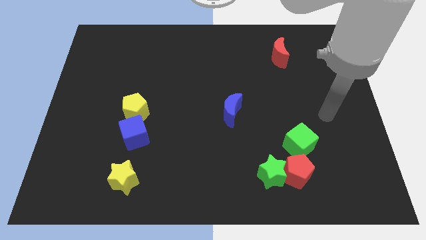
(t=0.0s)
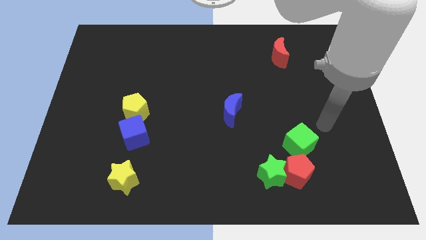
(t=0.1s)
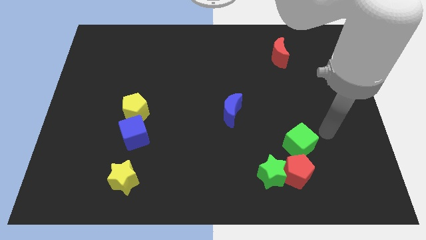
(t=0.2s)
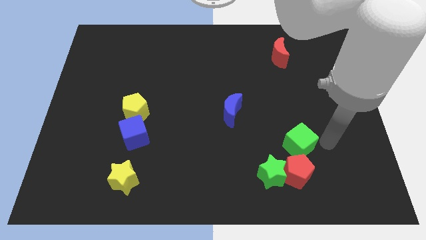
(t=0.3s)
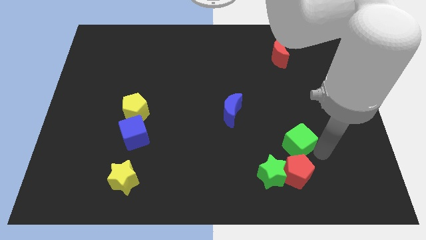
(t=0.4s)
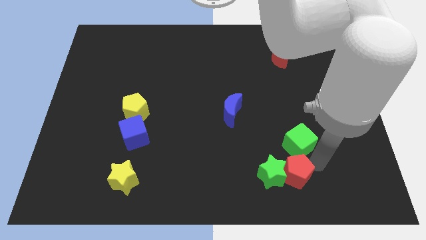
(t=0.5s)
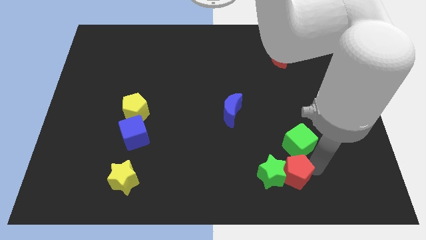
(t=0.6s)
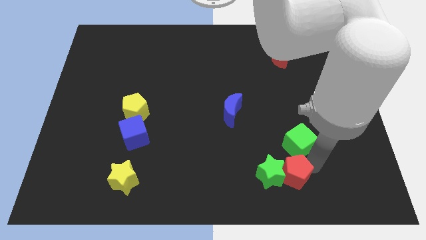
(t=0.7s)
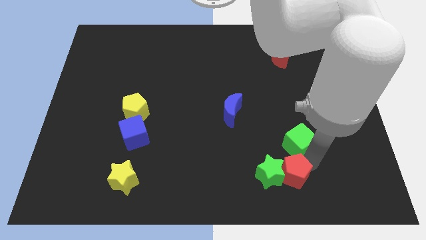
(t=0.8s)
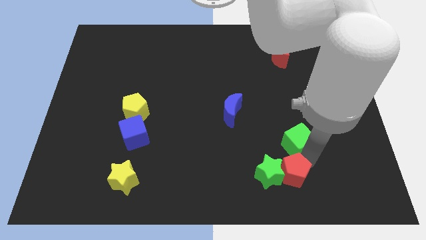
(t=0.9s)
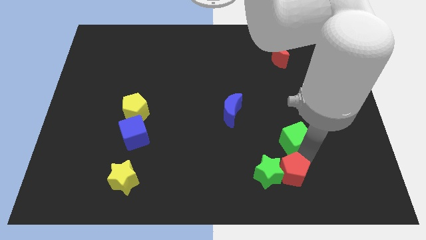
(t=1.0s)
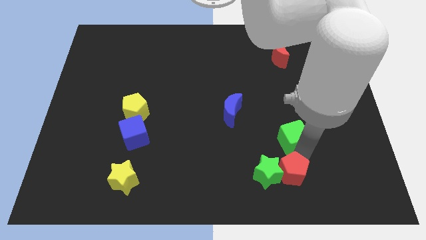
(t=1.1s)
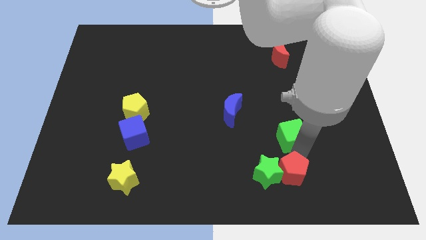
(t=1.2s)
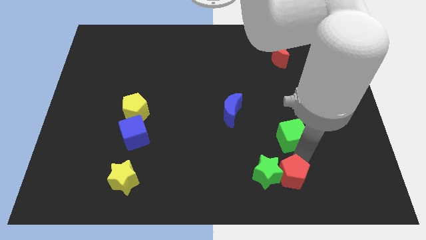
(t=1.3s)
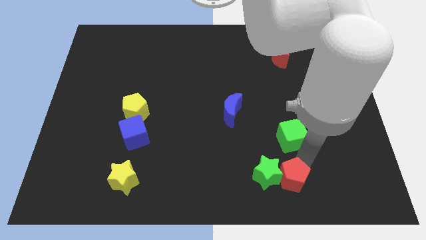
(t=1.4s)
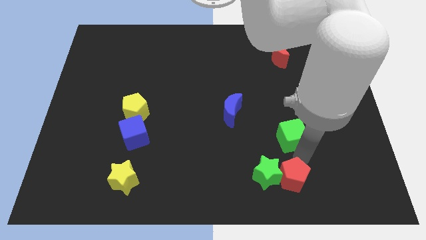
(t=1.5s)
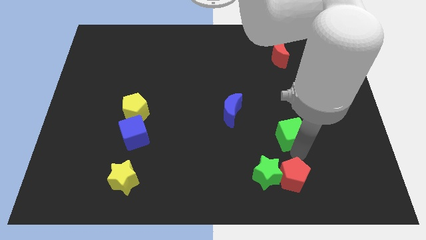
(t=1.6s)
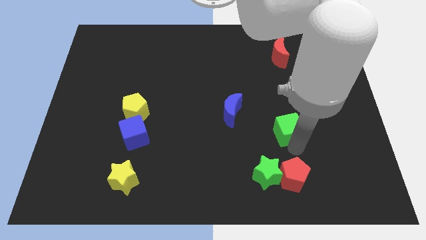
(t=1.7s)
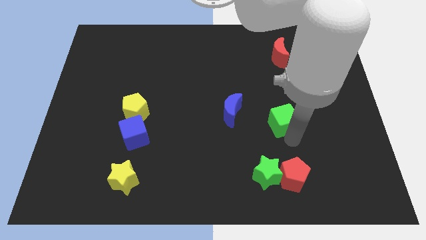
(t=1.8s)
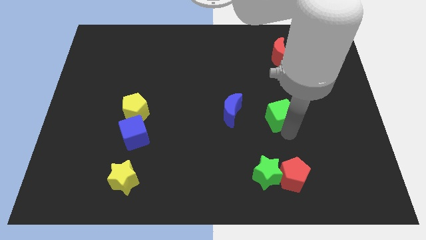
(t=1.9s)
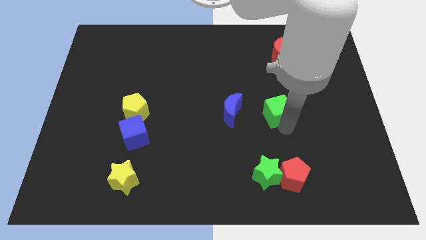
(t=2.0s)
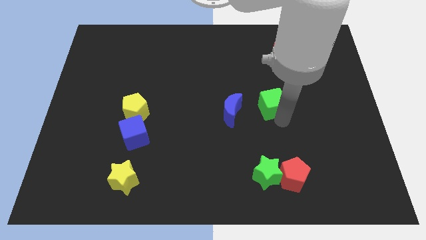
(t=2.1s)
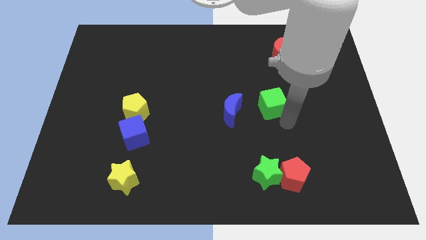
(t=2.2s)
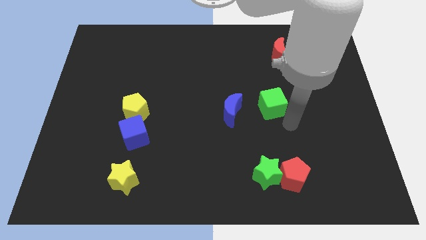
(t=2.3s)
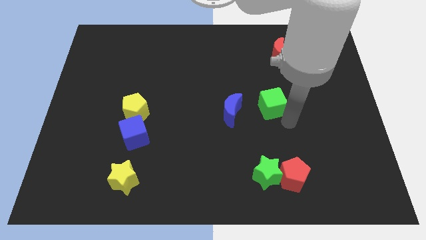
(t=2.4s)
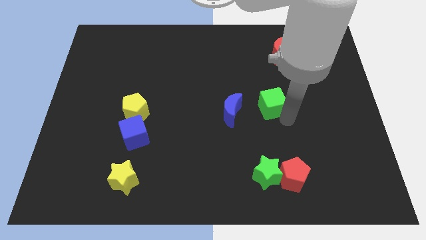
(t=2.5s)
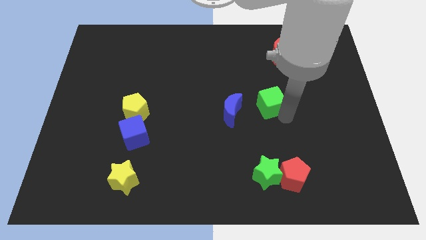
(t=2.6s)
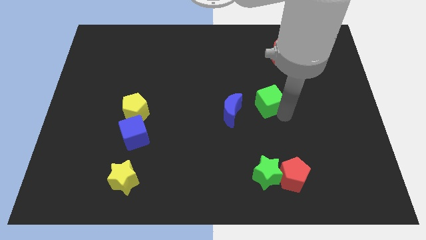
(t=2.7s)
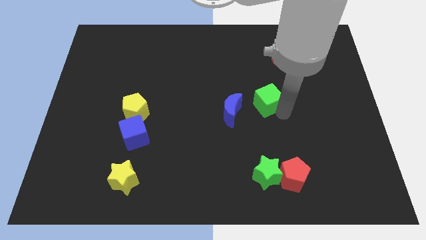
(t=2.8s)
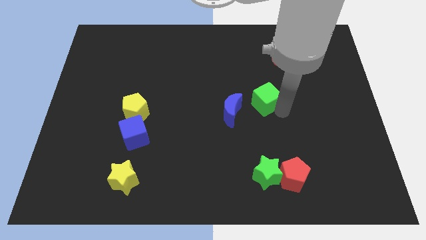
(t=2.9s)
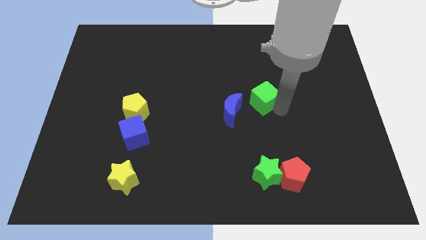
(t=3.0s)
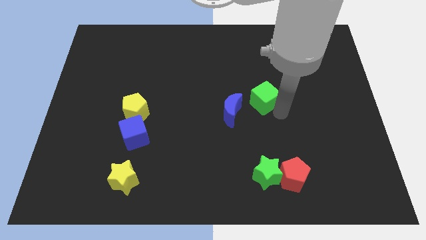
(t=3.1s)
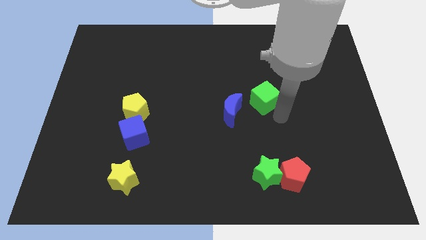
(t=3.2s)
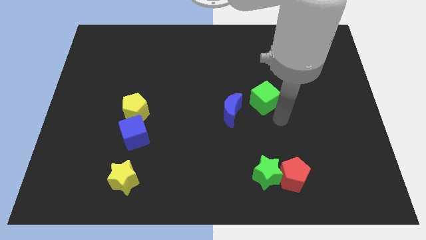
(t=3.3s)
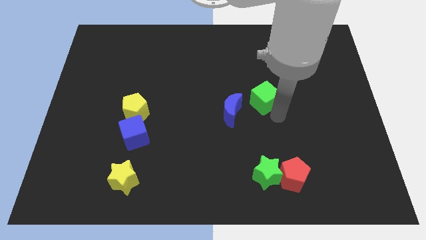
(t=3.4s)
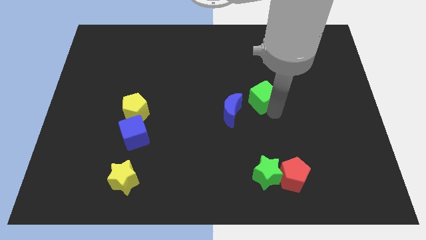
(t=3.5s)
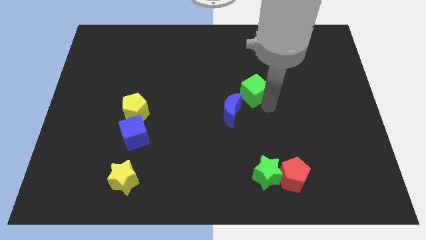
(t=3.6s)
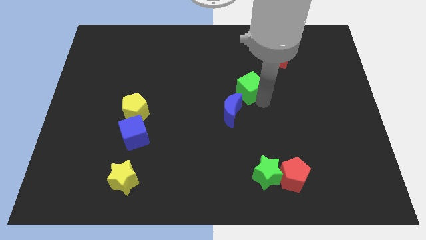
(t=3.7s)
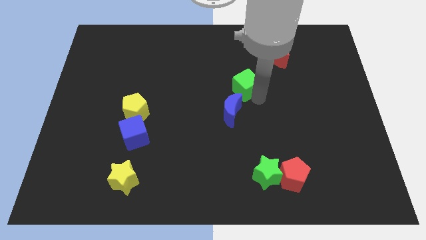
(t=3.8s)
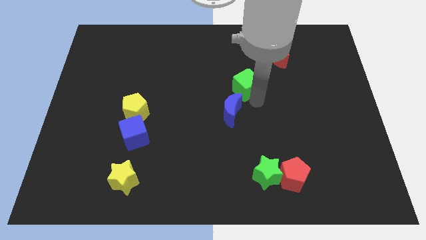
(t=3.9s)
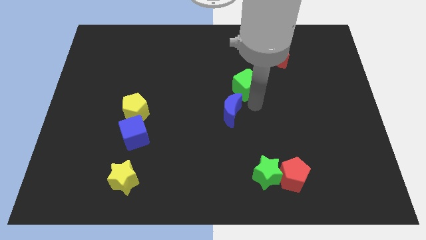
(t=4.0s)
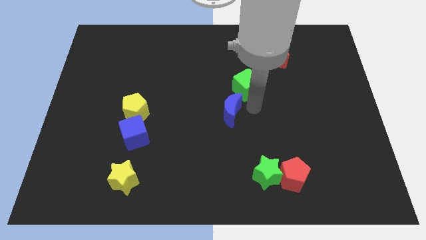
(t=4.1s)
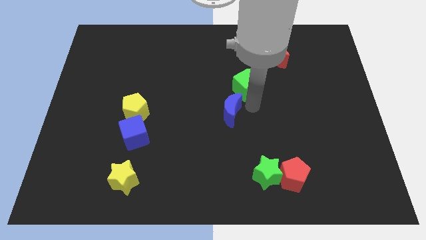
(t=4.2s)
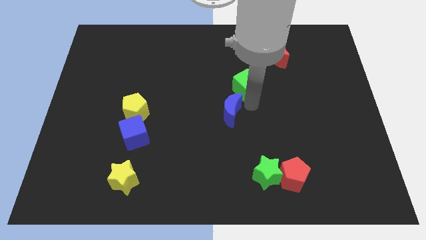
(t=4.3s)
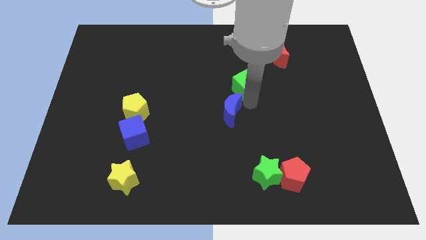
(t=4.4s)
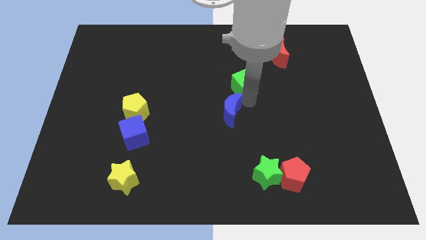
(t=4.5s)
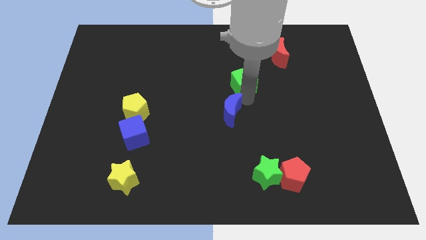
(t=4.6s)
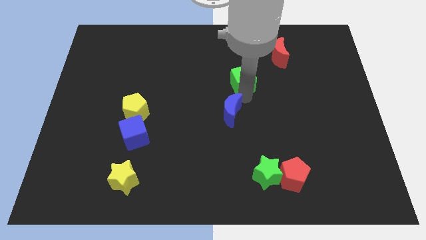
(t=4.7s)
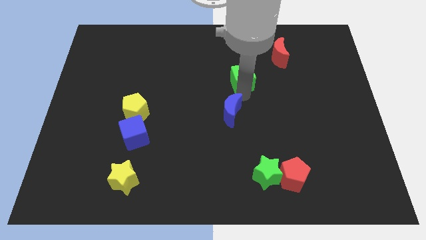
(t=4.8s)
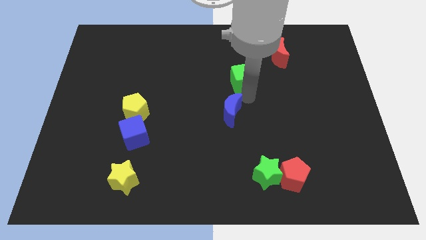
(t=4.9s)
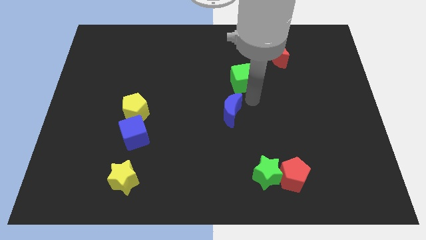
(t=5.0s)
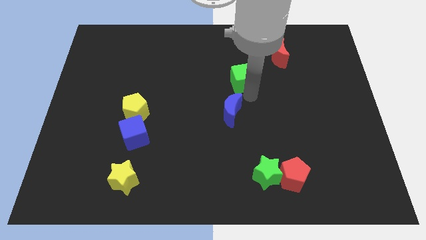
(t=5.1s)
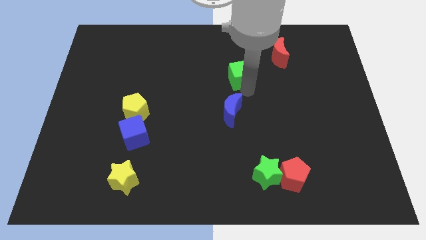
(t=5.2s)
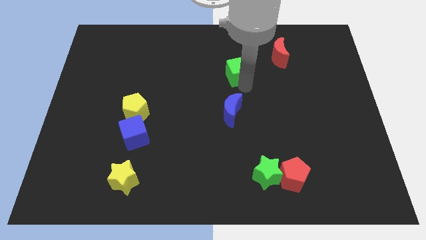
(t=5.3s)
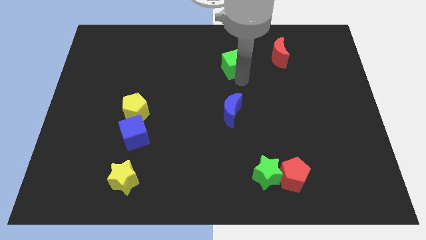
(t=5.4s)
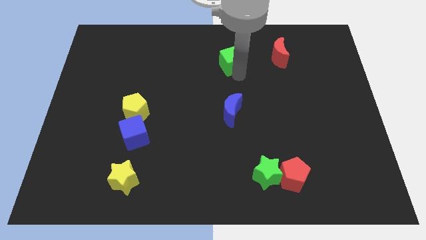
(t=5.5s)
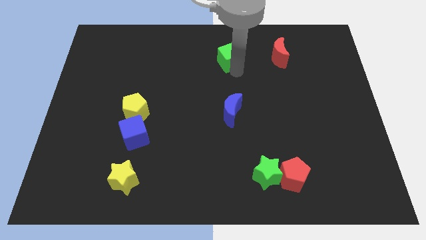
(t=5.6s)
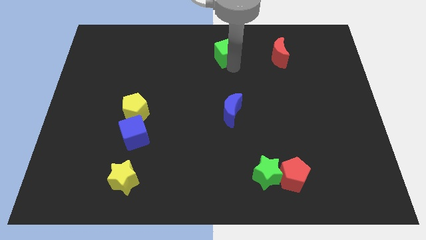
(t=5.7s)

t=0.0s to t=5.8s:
push the green cube to the top
